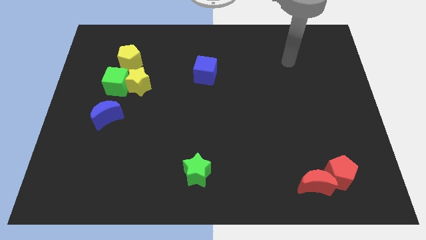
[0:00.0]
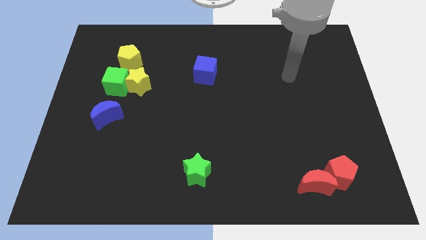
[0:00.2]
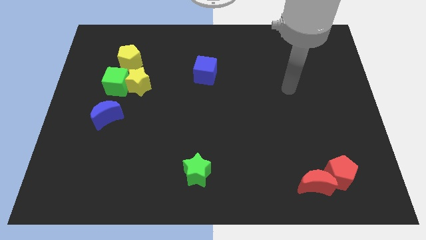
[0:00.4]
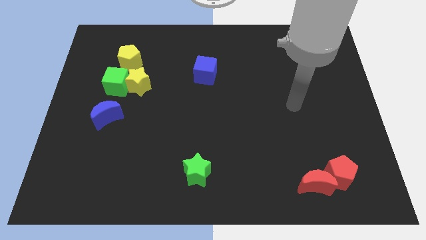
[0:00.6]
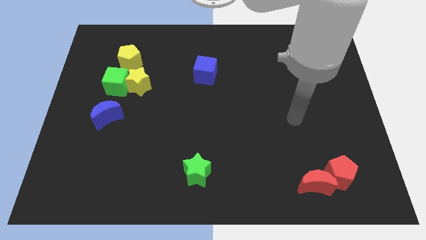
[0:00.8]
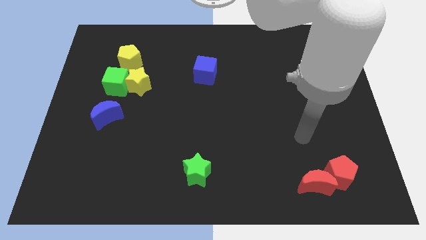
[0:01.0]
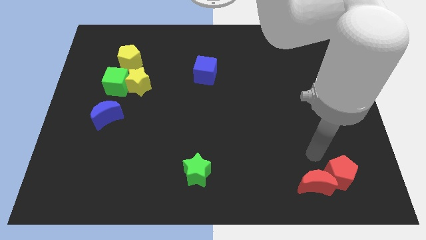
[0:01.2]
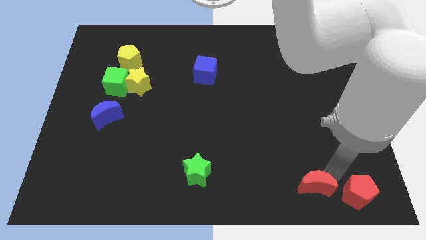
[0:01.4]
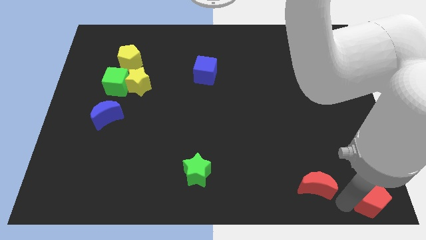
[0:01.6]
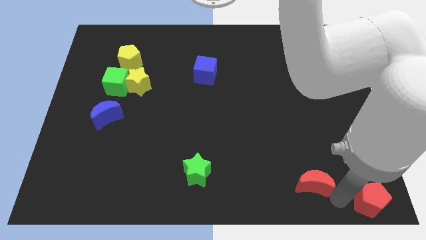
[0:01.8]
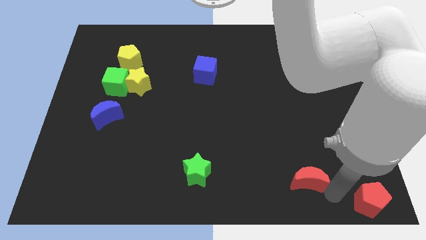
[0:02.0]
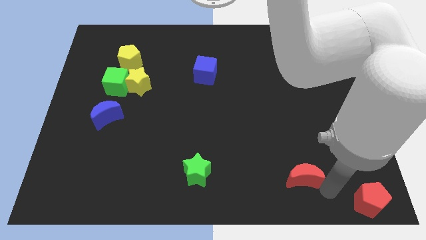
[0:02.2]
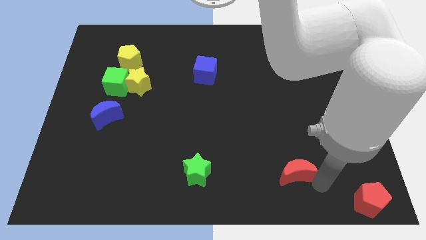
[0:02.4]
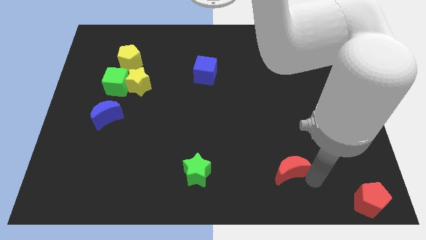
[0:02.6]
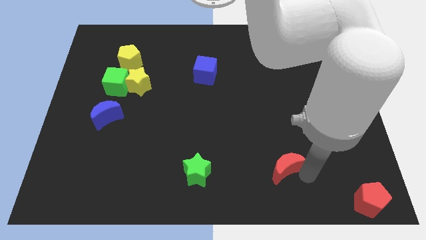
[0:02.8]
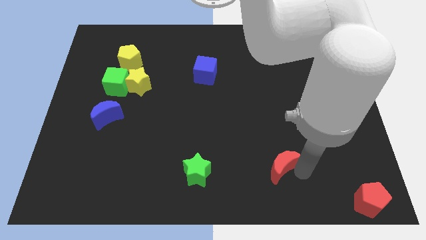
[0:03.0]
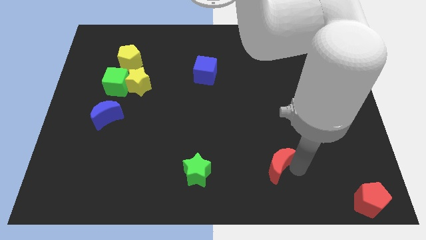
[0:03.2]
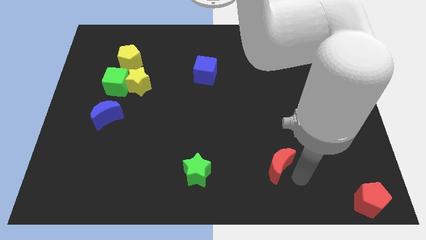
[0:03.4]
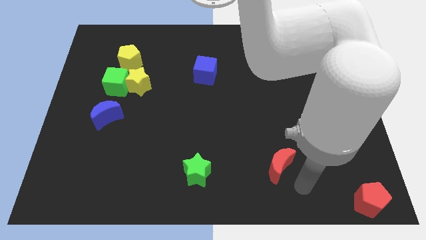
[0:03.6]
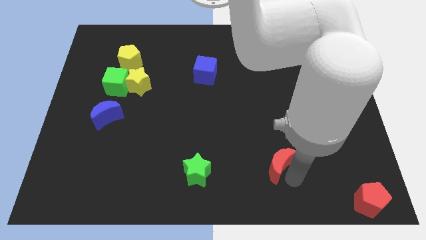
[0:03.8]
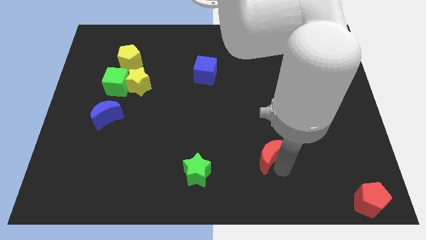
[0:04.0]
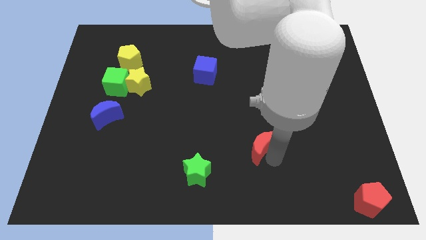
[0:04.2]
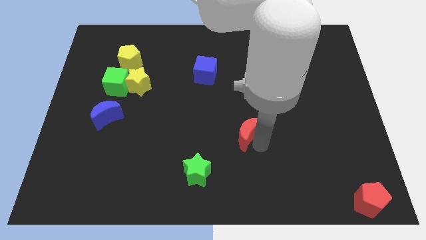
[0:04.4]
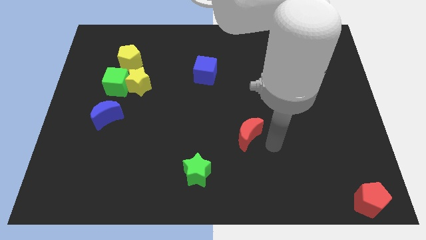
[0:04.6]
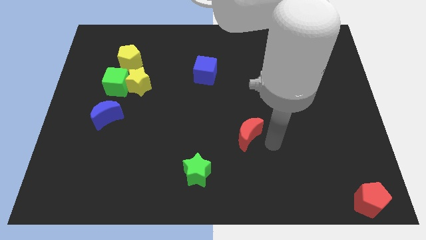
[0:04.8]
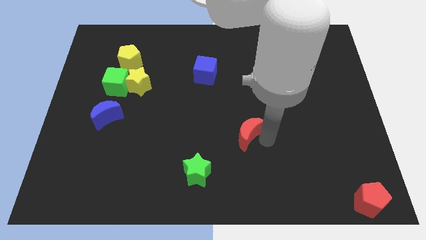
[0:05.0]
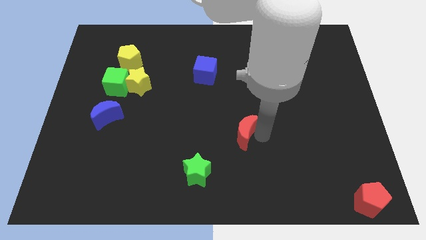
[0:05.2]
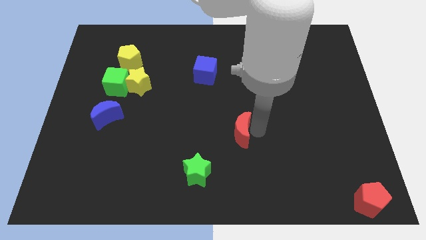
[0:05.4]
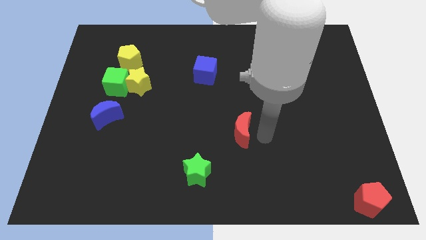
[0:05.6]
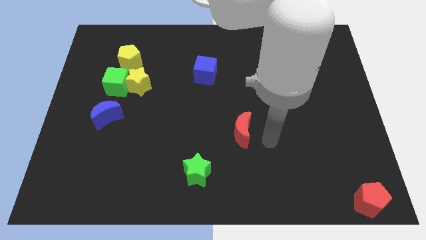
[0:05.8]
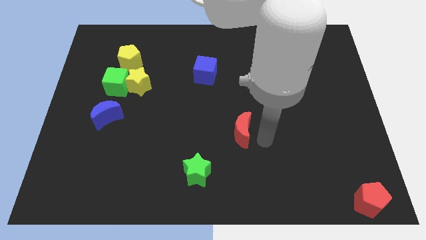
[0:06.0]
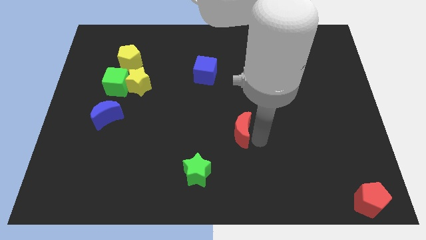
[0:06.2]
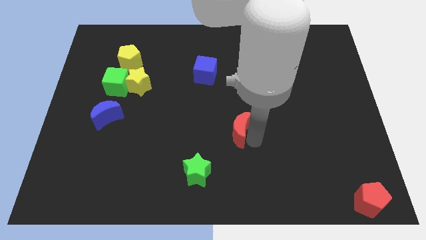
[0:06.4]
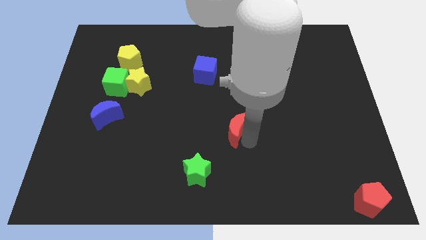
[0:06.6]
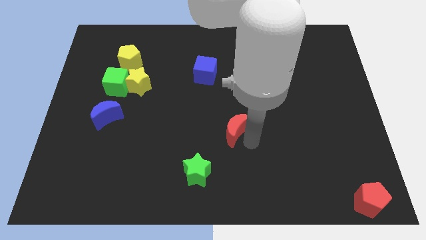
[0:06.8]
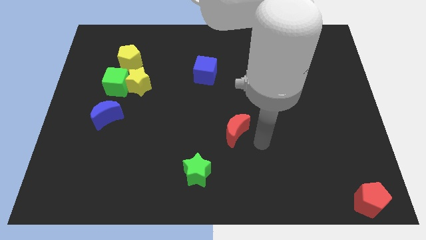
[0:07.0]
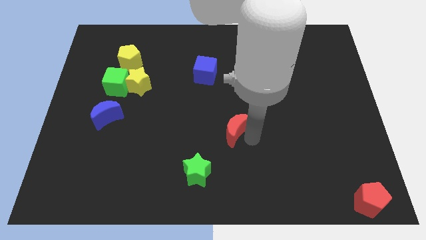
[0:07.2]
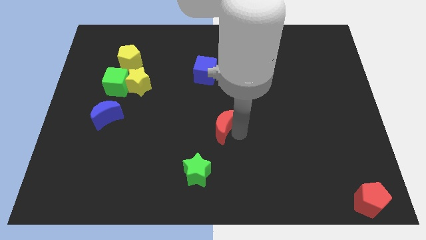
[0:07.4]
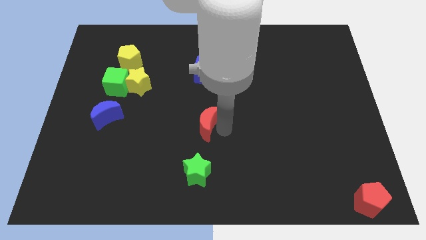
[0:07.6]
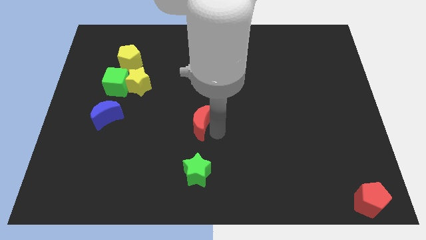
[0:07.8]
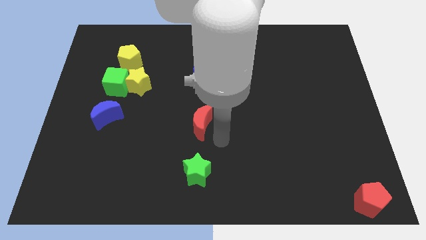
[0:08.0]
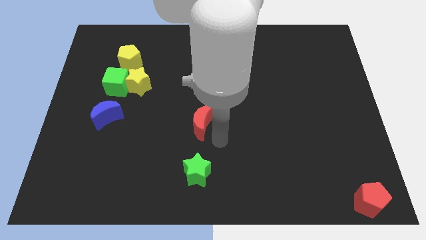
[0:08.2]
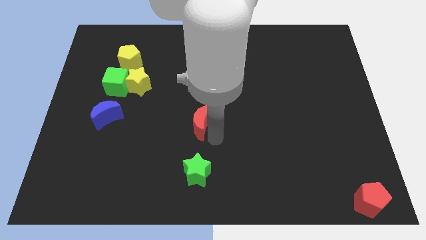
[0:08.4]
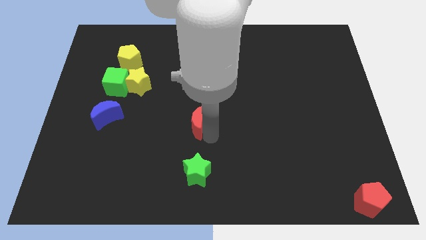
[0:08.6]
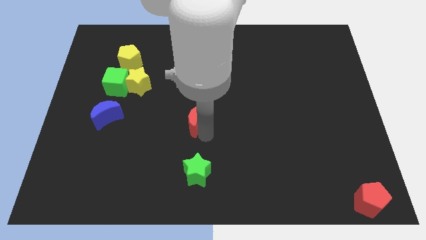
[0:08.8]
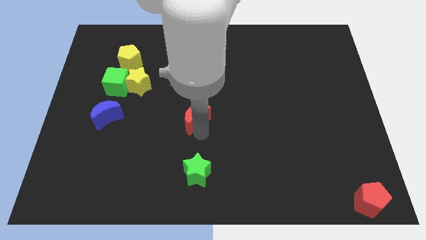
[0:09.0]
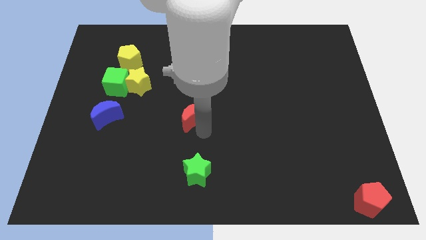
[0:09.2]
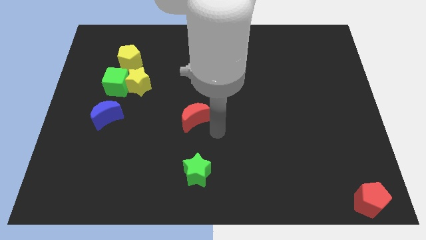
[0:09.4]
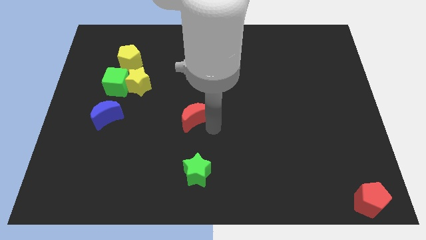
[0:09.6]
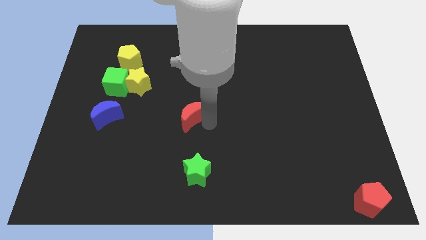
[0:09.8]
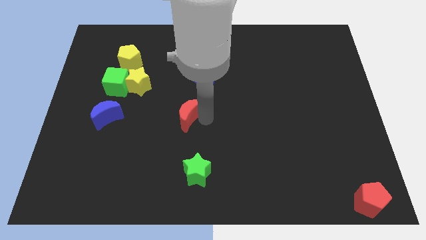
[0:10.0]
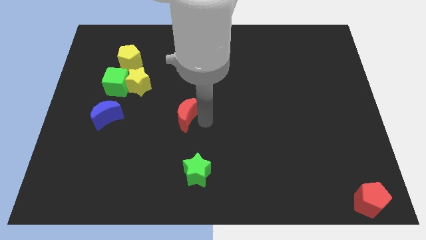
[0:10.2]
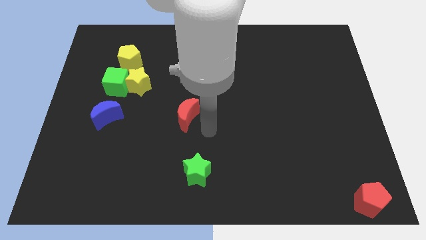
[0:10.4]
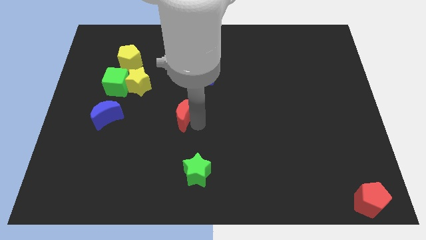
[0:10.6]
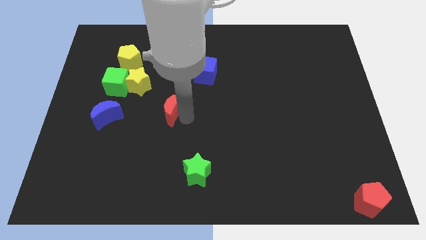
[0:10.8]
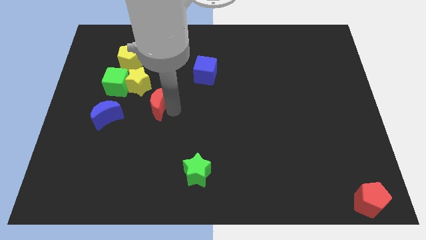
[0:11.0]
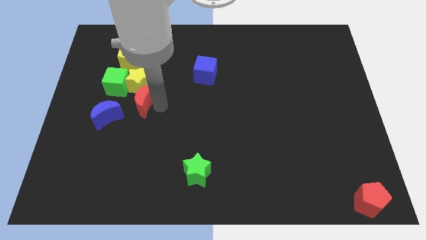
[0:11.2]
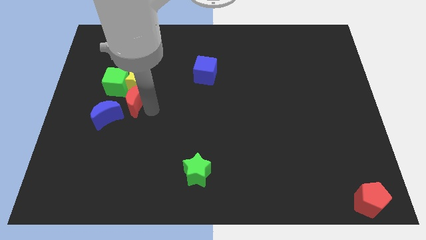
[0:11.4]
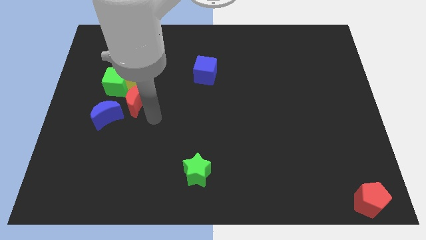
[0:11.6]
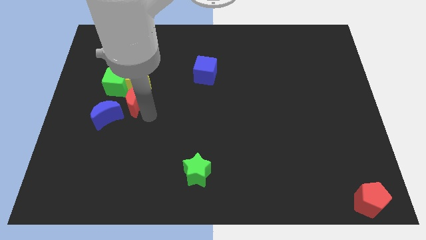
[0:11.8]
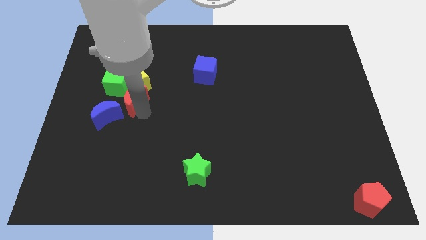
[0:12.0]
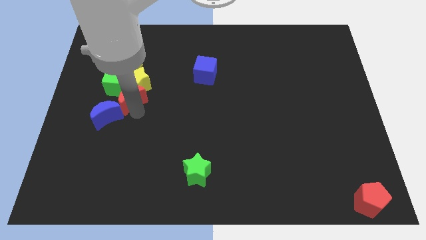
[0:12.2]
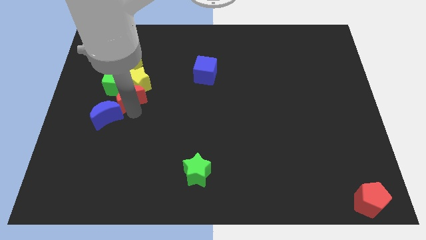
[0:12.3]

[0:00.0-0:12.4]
put the red moon towards the green cube

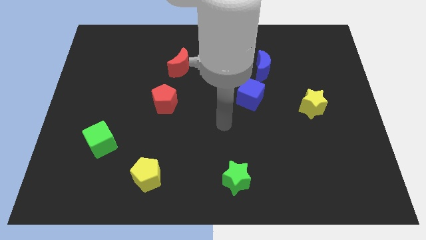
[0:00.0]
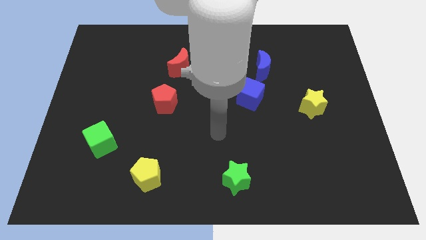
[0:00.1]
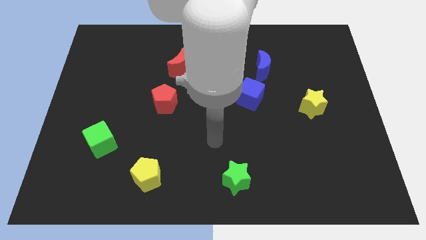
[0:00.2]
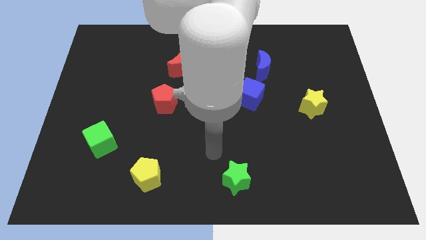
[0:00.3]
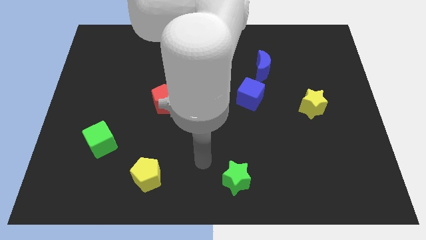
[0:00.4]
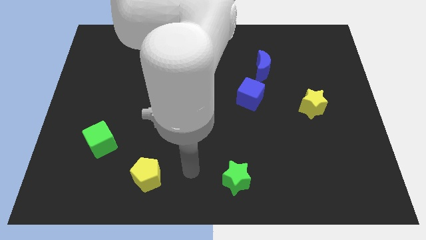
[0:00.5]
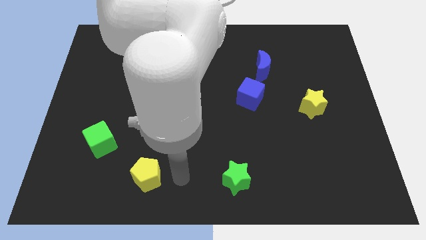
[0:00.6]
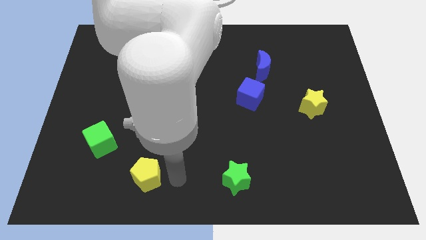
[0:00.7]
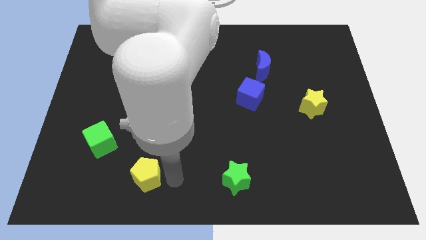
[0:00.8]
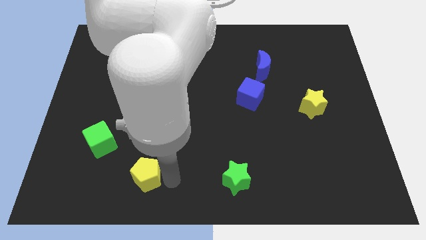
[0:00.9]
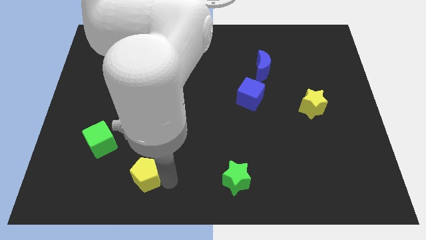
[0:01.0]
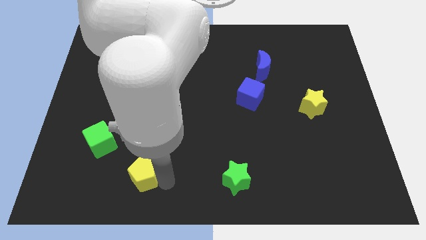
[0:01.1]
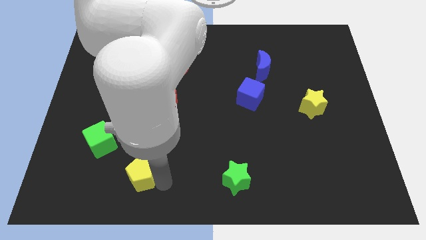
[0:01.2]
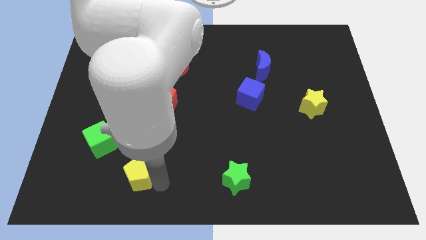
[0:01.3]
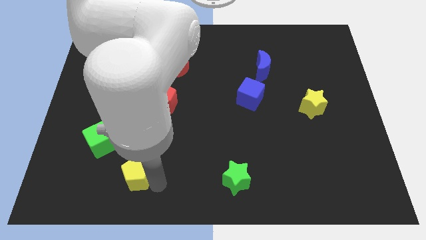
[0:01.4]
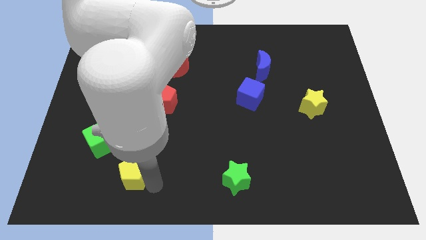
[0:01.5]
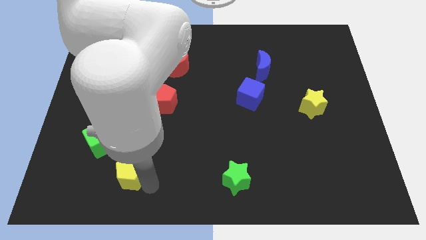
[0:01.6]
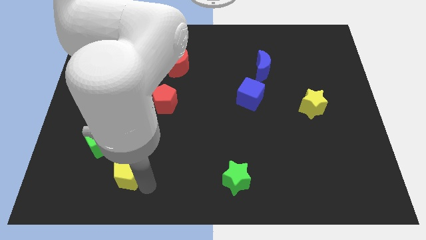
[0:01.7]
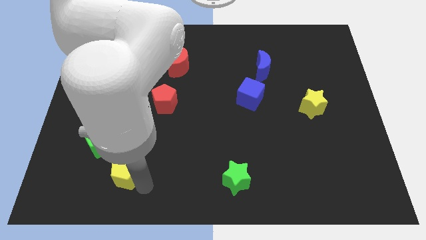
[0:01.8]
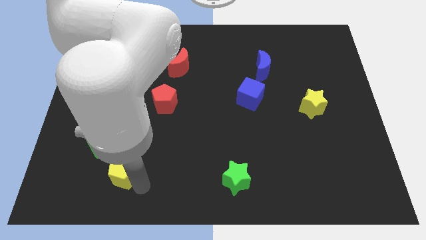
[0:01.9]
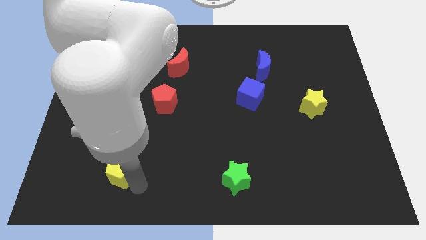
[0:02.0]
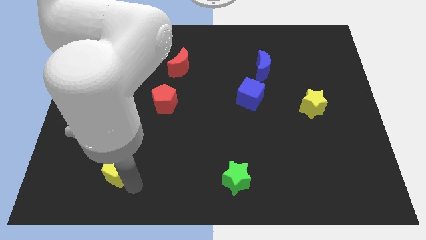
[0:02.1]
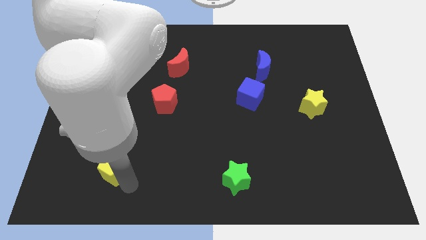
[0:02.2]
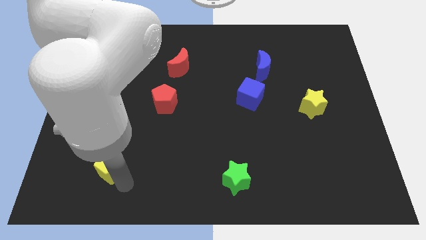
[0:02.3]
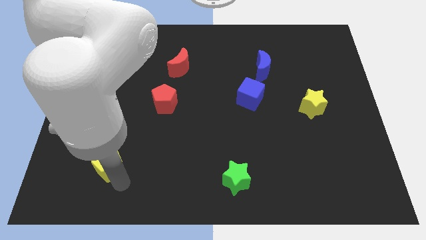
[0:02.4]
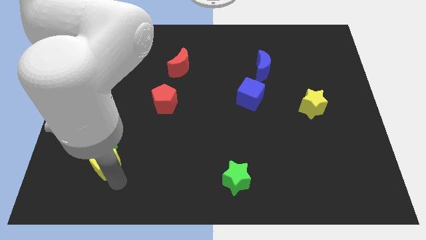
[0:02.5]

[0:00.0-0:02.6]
move the yellow pentagon towards the green cube
